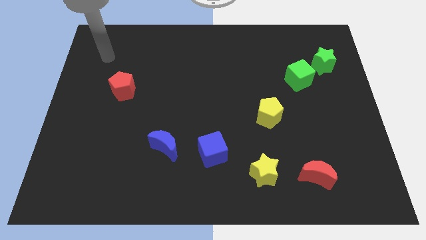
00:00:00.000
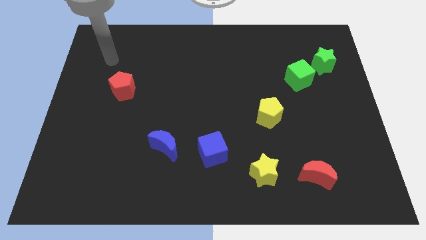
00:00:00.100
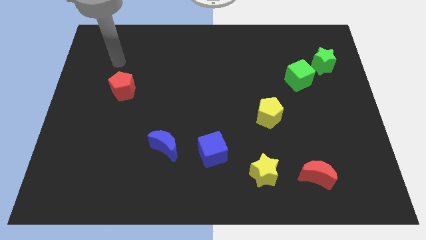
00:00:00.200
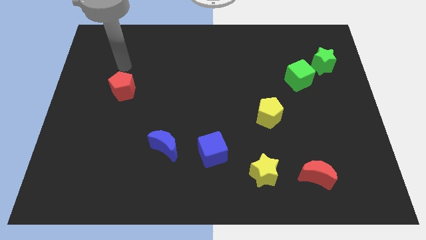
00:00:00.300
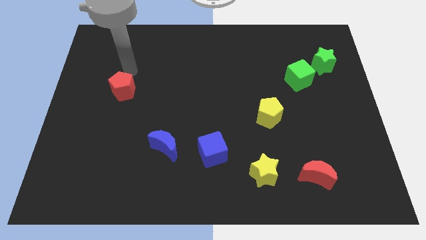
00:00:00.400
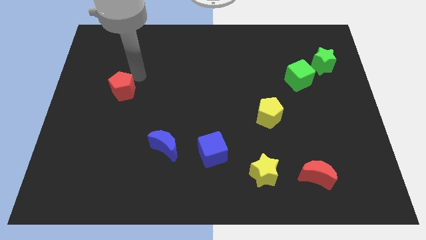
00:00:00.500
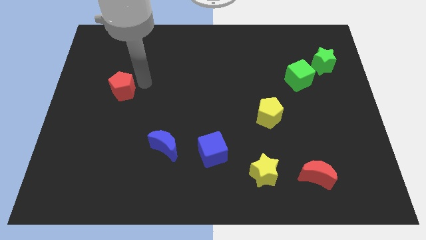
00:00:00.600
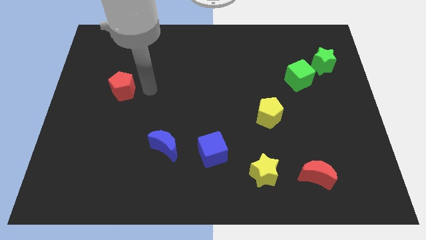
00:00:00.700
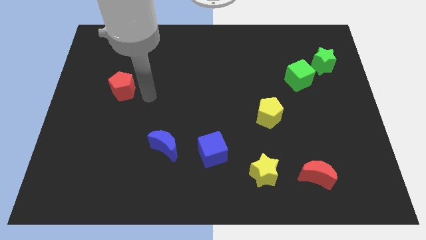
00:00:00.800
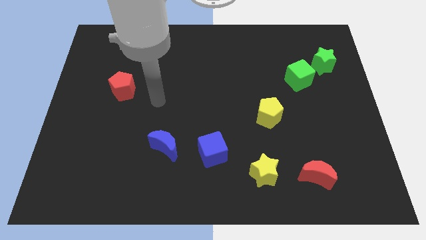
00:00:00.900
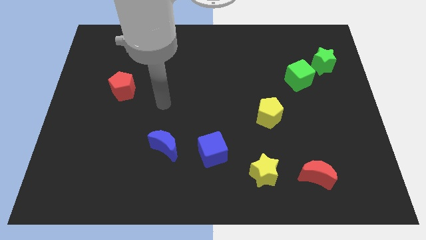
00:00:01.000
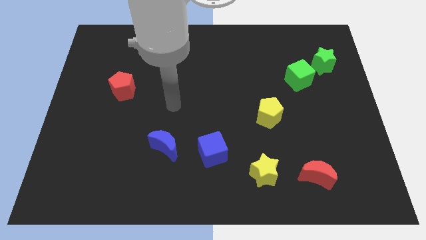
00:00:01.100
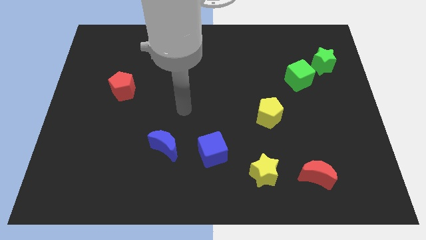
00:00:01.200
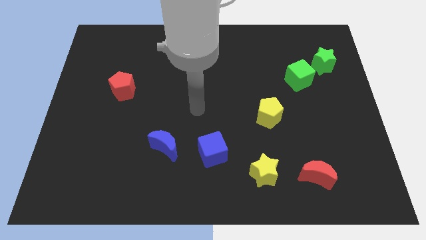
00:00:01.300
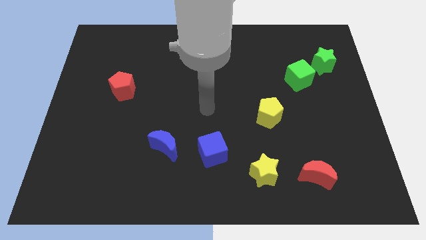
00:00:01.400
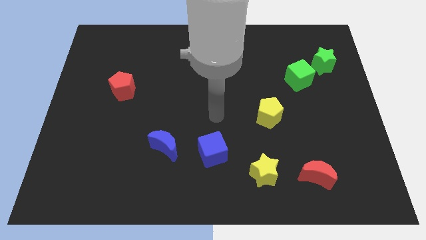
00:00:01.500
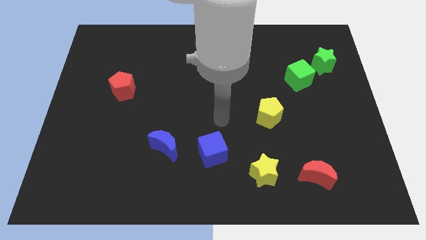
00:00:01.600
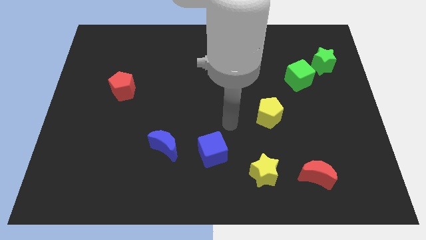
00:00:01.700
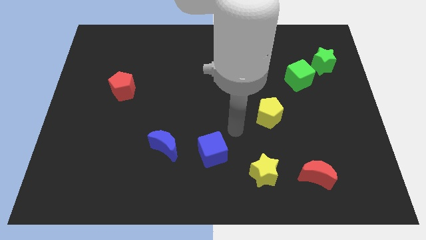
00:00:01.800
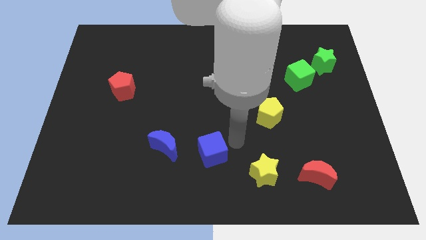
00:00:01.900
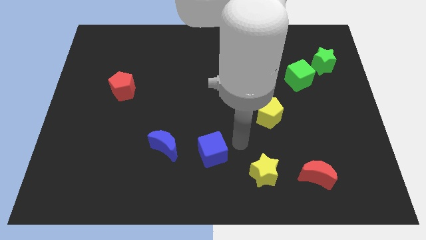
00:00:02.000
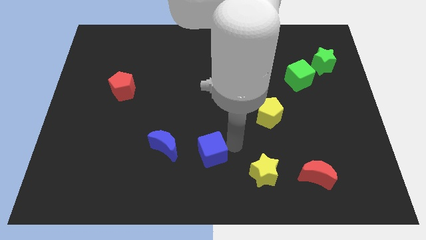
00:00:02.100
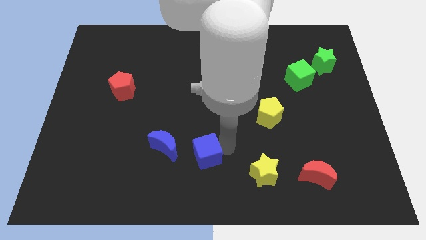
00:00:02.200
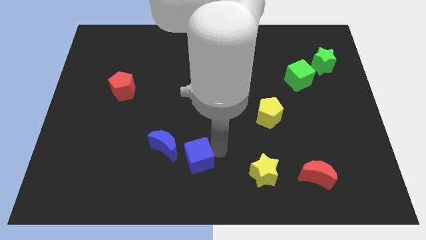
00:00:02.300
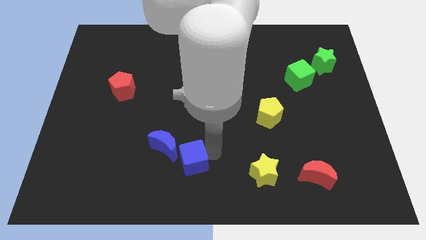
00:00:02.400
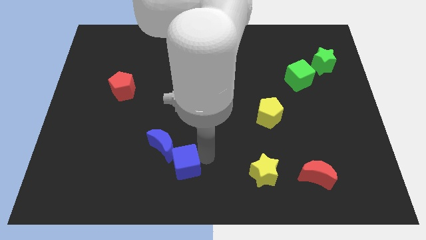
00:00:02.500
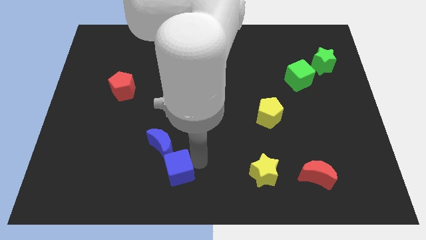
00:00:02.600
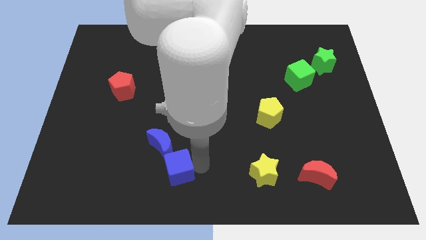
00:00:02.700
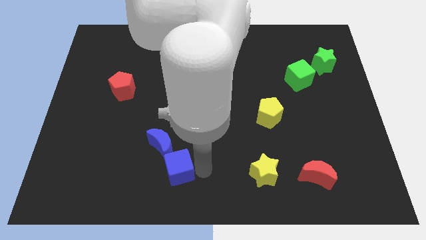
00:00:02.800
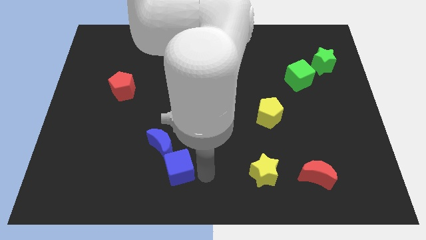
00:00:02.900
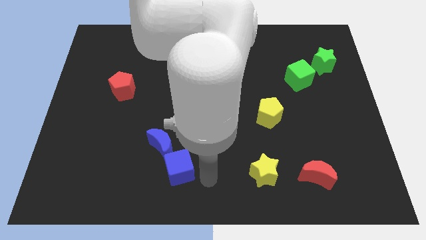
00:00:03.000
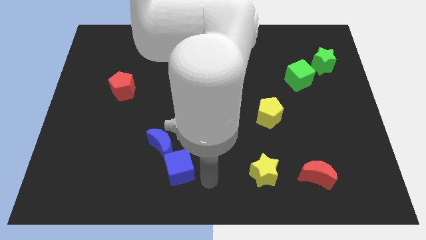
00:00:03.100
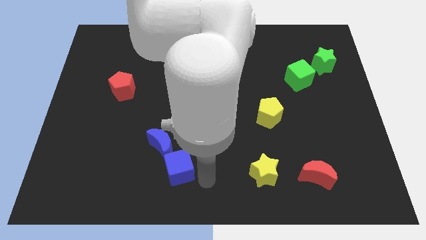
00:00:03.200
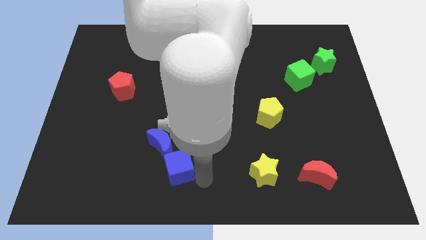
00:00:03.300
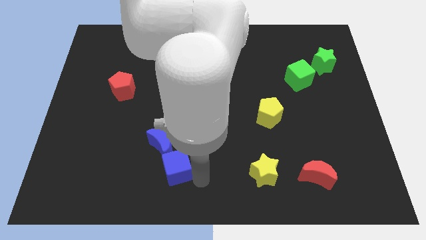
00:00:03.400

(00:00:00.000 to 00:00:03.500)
move the blue cube left a little bit

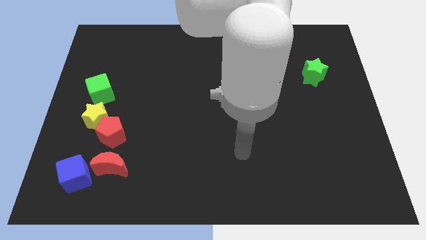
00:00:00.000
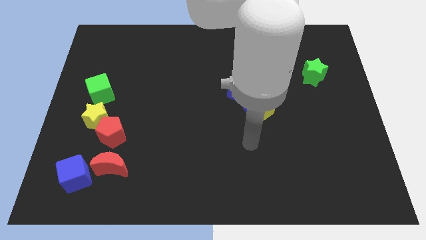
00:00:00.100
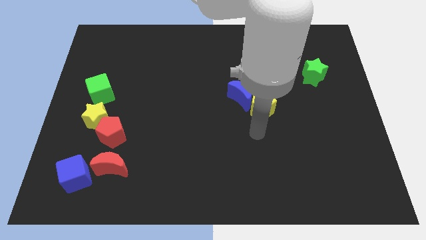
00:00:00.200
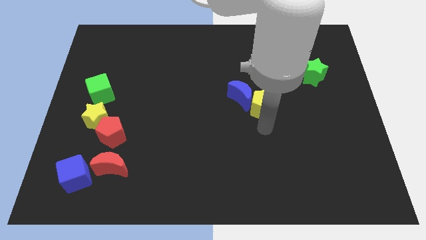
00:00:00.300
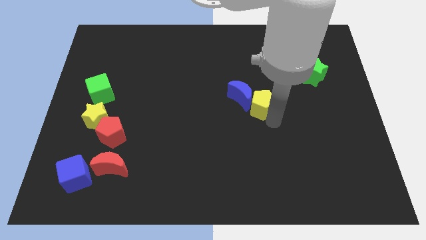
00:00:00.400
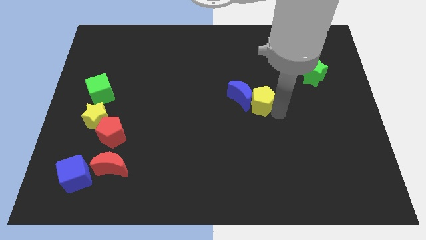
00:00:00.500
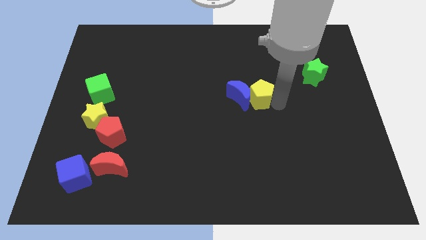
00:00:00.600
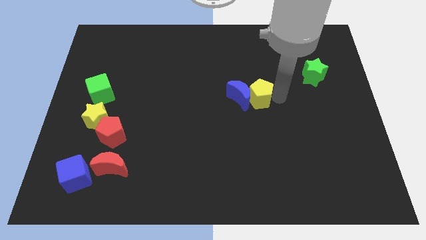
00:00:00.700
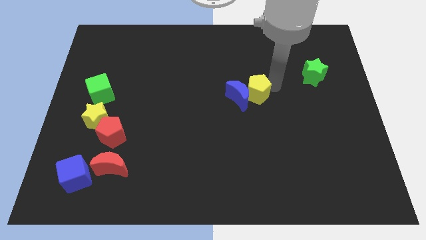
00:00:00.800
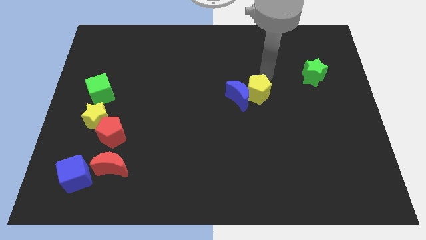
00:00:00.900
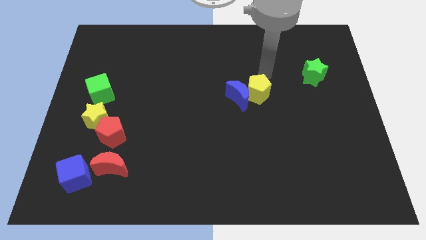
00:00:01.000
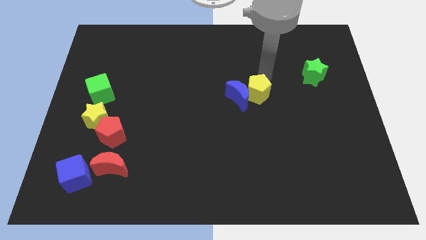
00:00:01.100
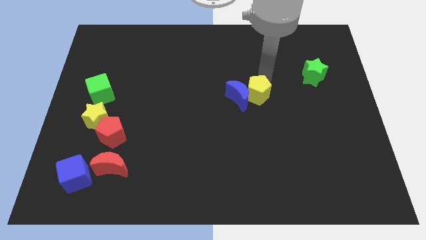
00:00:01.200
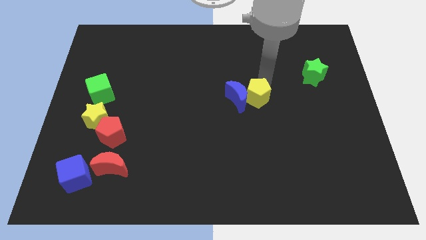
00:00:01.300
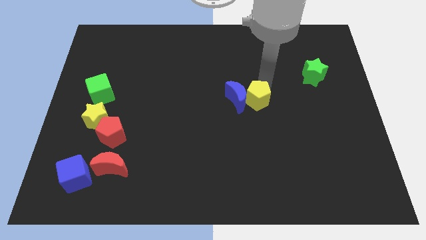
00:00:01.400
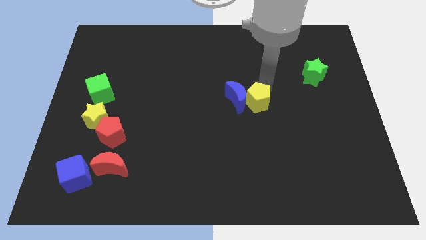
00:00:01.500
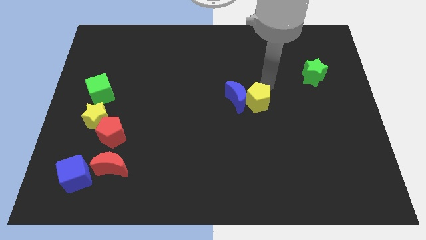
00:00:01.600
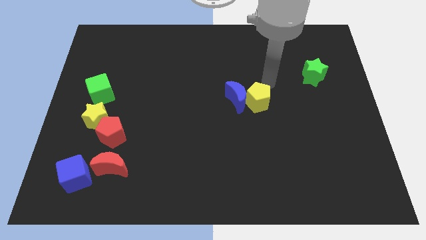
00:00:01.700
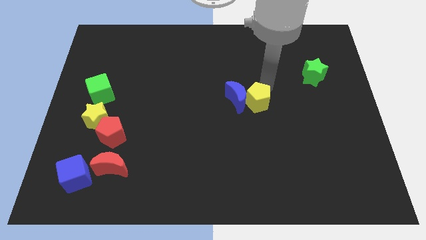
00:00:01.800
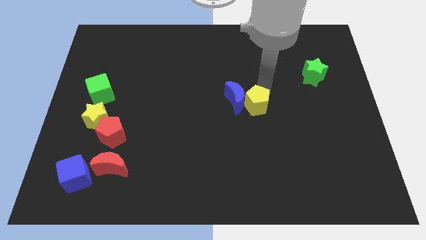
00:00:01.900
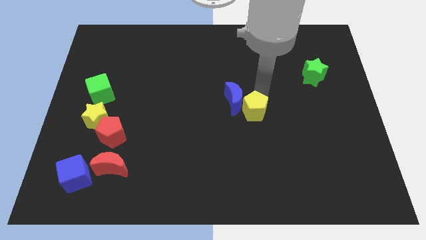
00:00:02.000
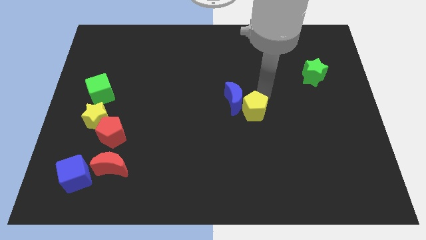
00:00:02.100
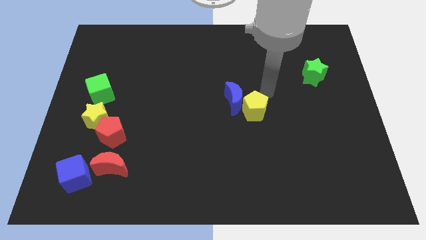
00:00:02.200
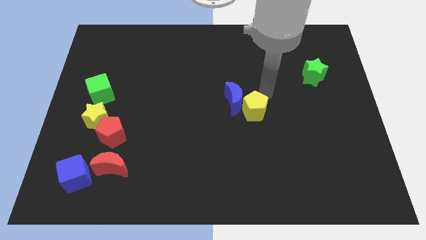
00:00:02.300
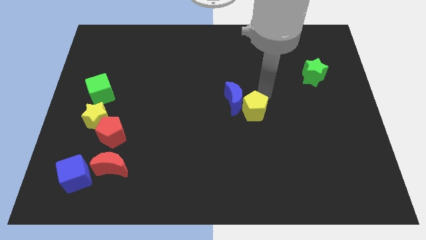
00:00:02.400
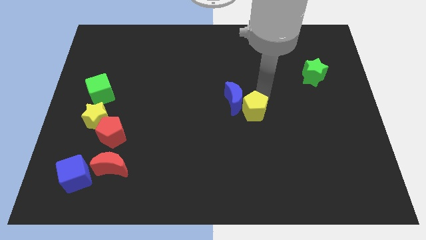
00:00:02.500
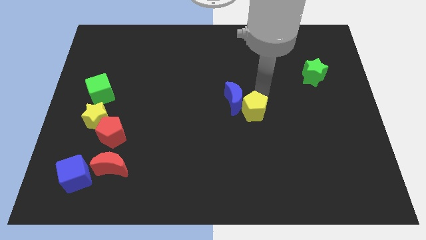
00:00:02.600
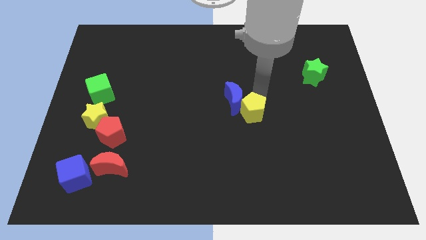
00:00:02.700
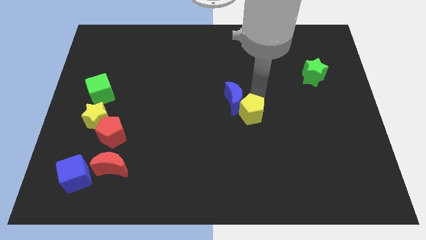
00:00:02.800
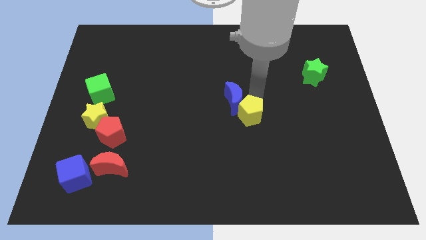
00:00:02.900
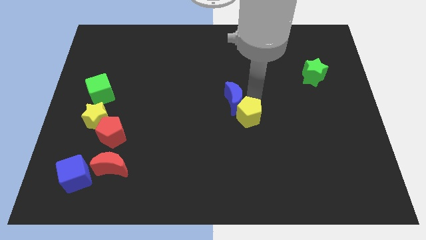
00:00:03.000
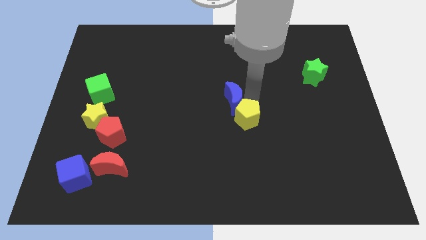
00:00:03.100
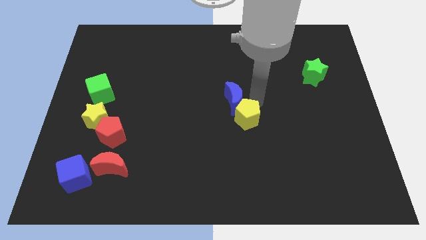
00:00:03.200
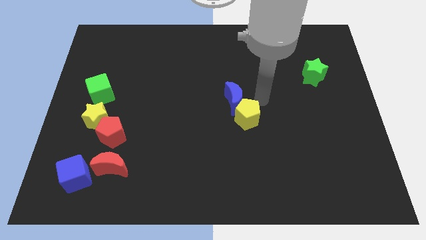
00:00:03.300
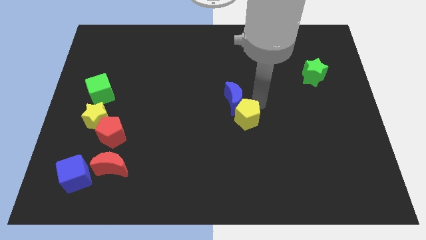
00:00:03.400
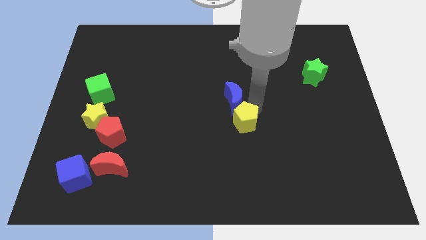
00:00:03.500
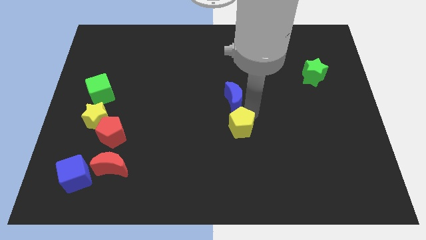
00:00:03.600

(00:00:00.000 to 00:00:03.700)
slightly slide the yellow pentagon down and then left

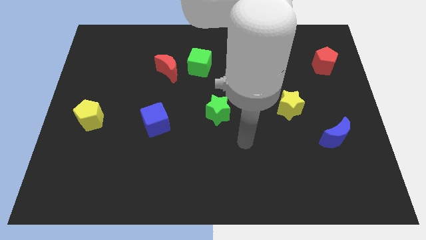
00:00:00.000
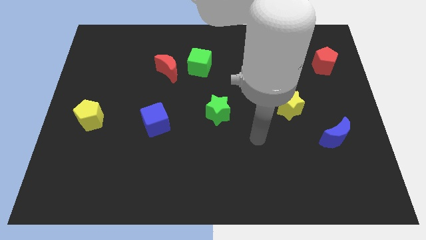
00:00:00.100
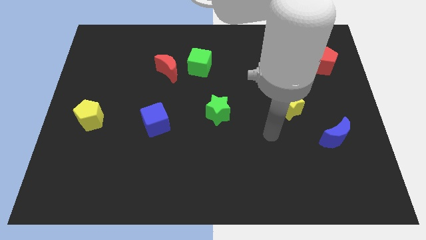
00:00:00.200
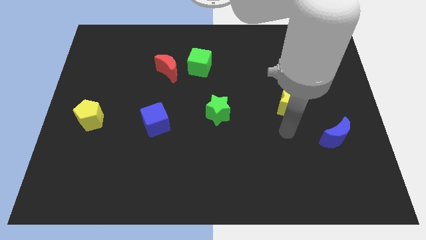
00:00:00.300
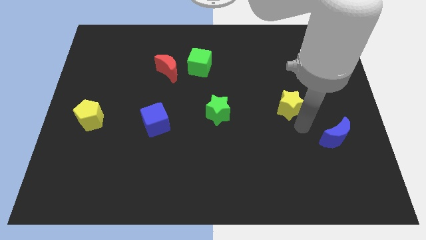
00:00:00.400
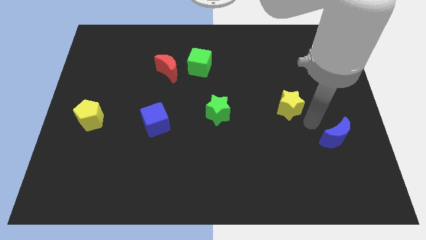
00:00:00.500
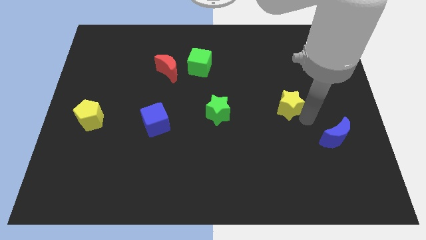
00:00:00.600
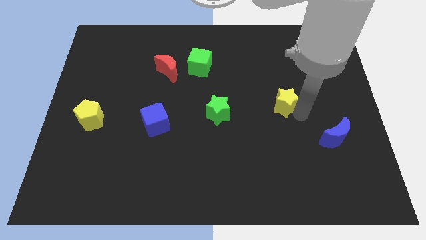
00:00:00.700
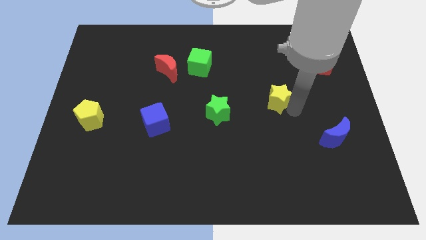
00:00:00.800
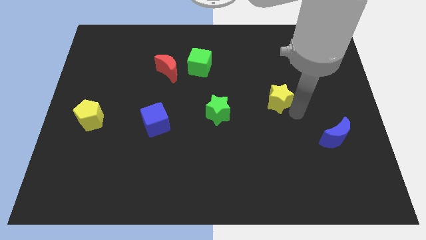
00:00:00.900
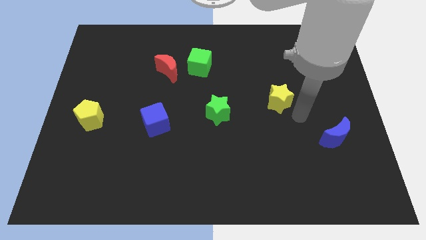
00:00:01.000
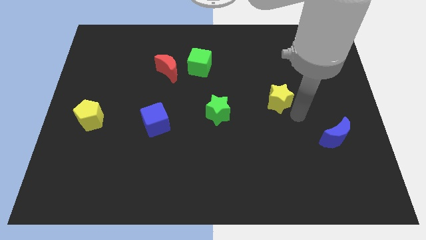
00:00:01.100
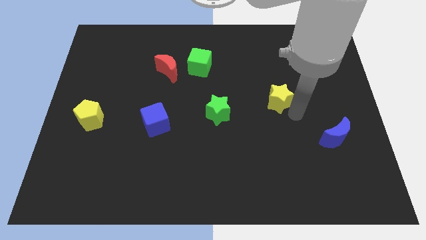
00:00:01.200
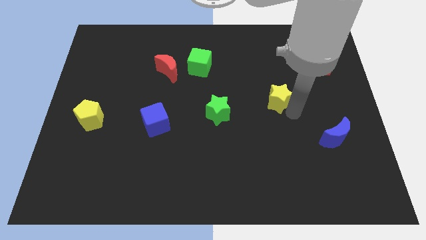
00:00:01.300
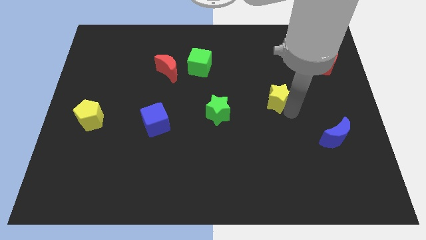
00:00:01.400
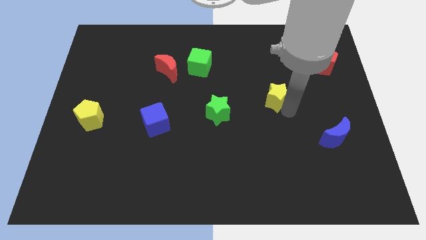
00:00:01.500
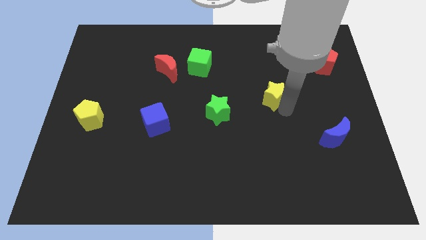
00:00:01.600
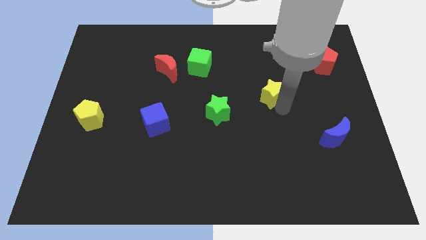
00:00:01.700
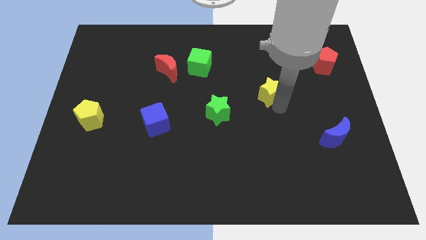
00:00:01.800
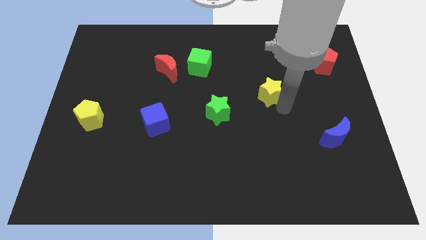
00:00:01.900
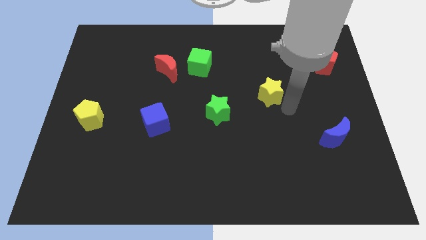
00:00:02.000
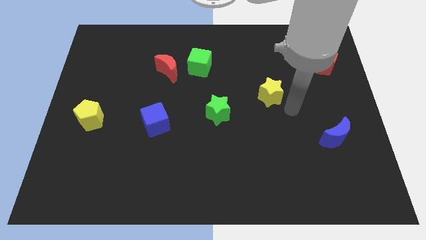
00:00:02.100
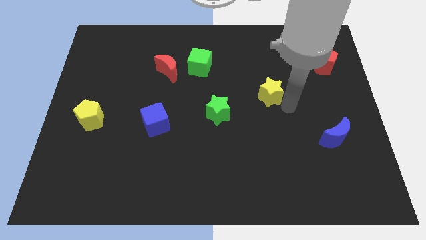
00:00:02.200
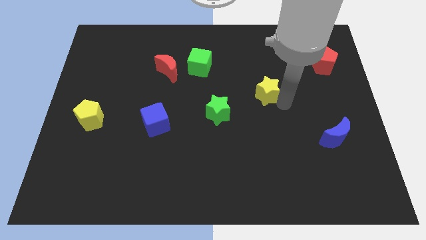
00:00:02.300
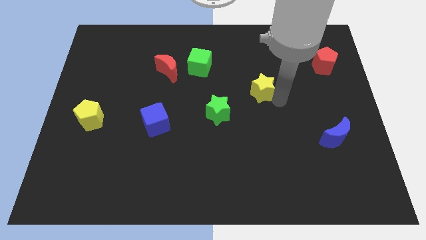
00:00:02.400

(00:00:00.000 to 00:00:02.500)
push the yellow star upwards and to the left diagonally slightly
